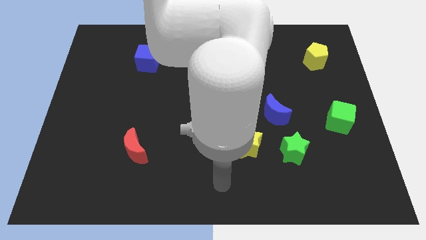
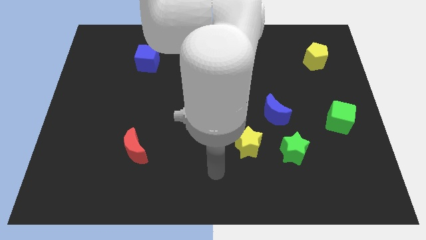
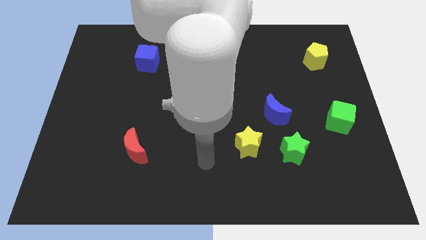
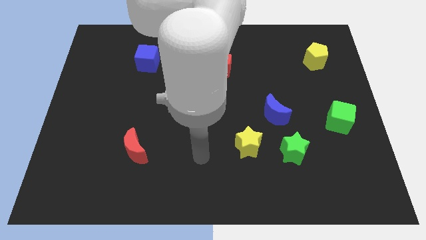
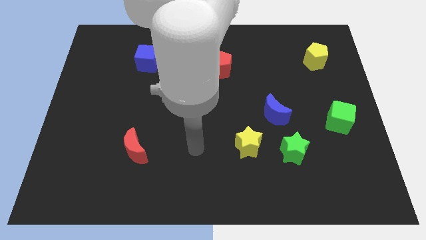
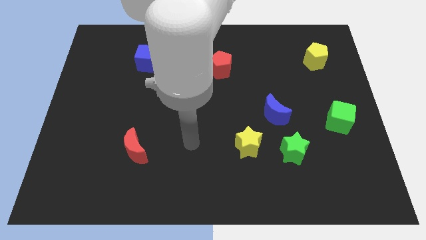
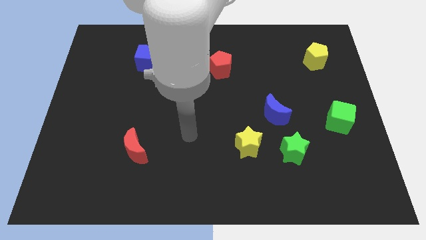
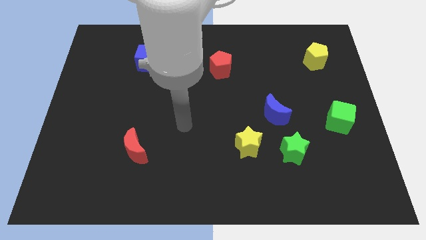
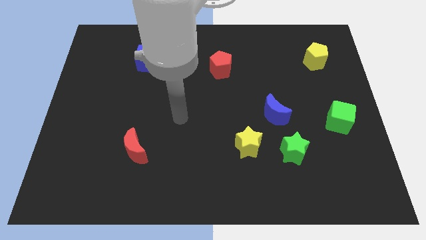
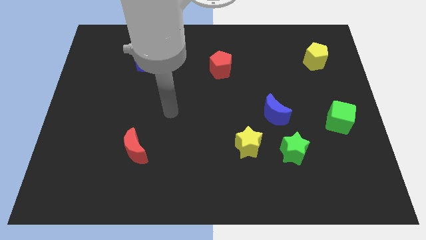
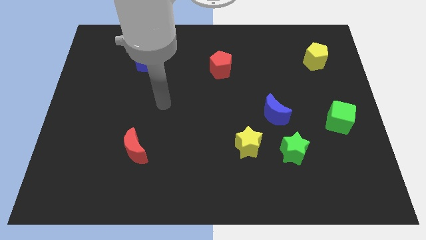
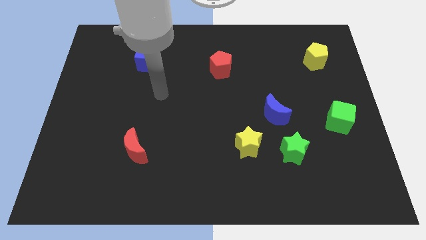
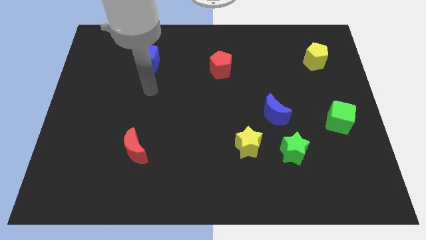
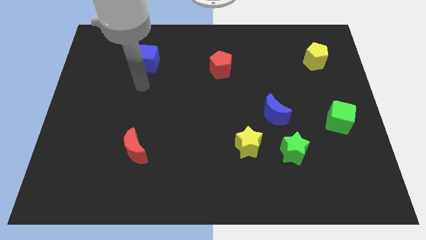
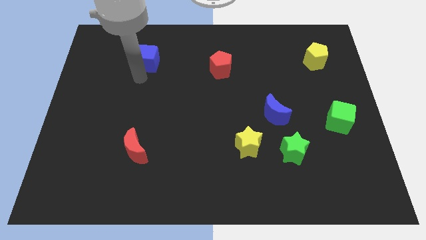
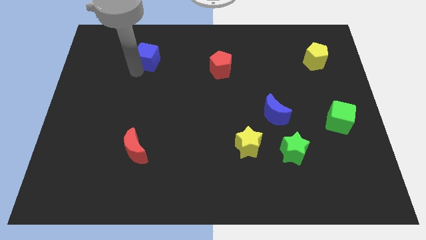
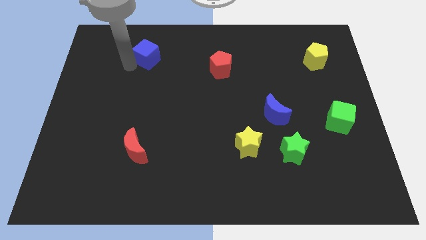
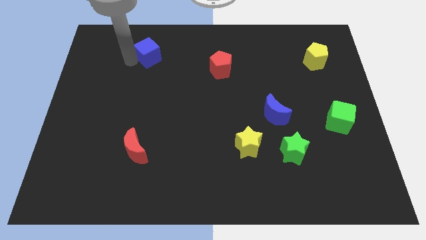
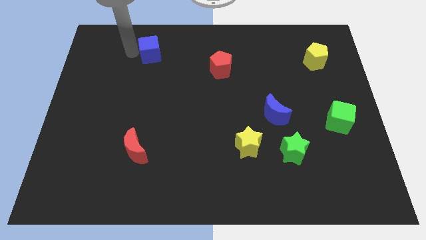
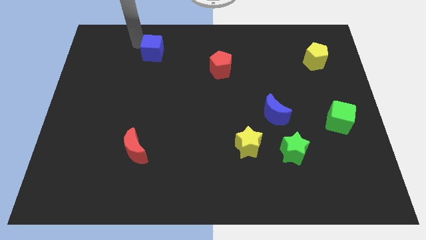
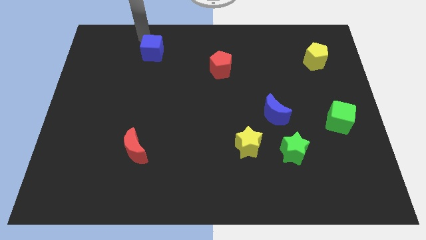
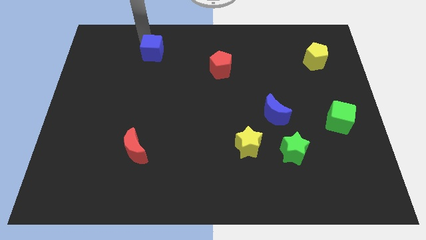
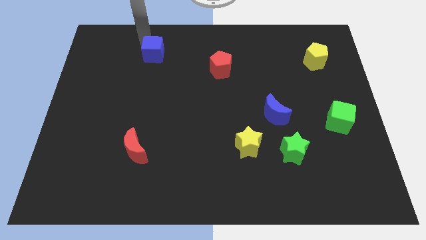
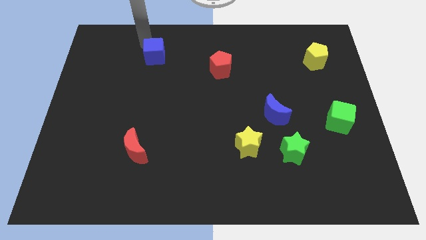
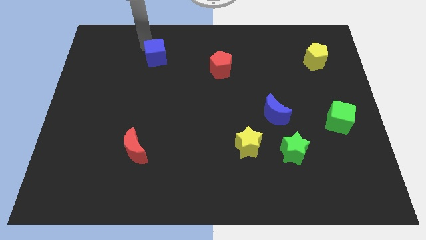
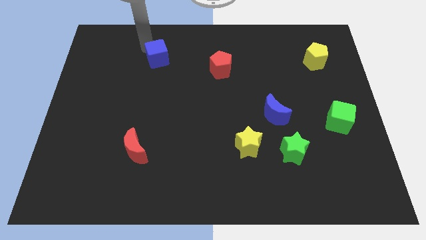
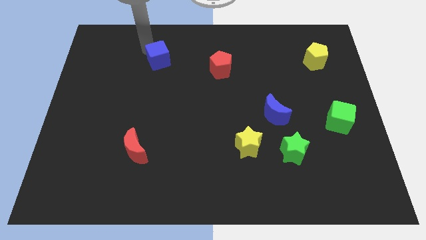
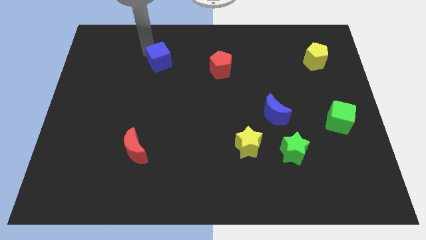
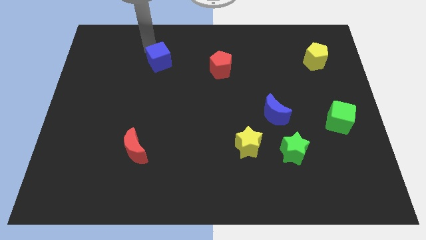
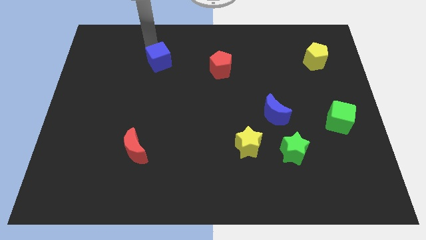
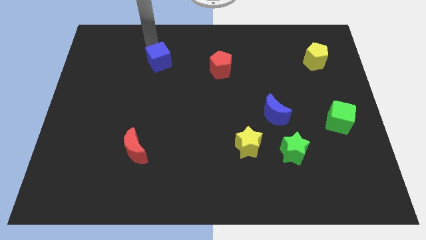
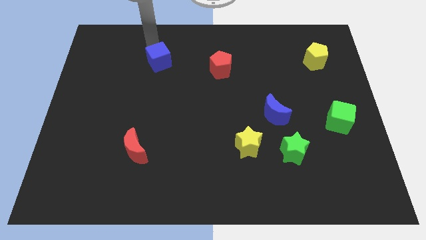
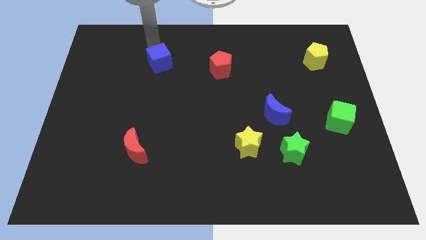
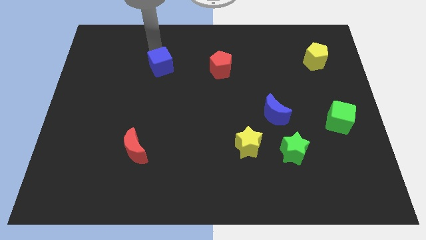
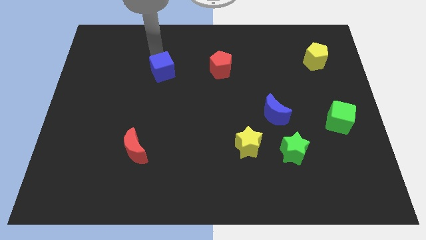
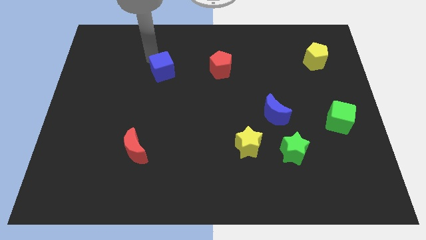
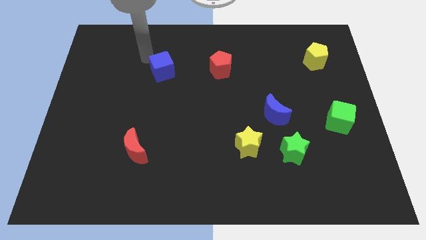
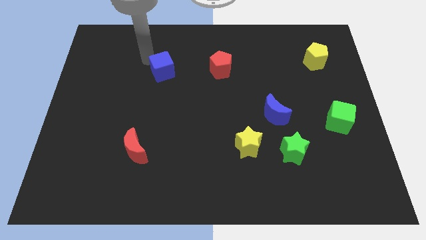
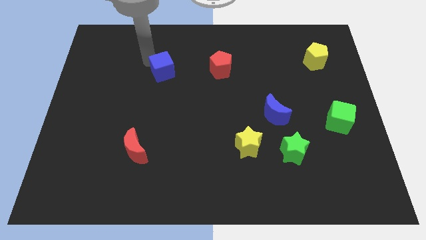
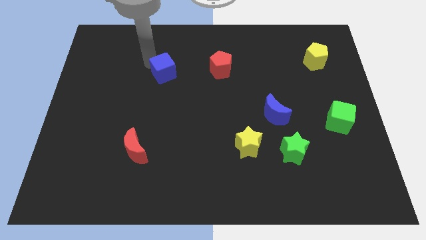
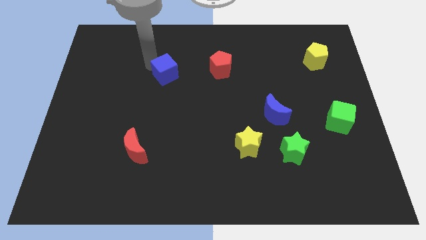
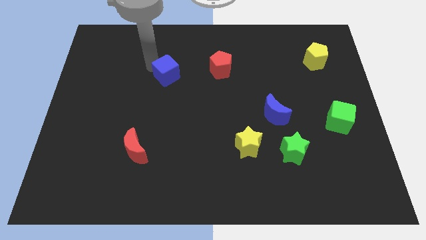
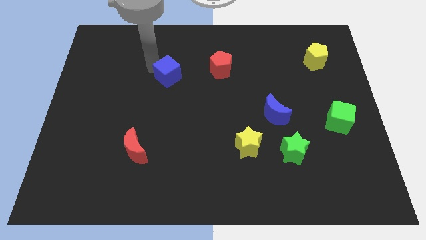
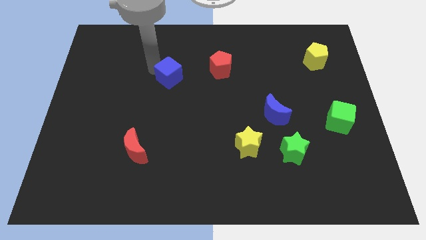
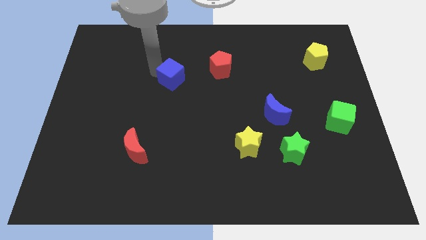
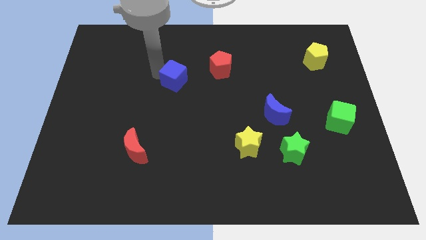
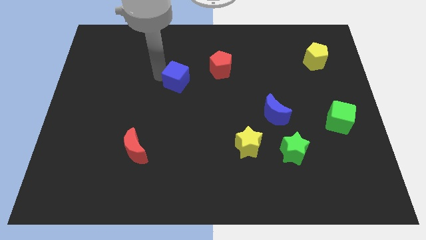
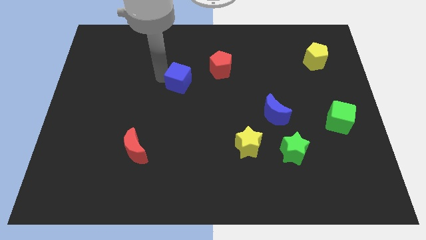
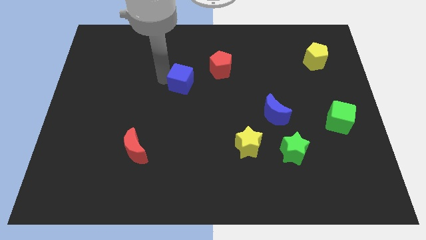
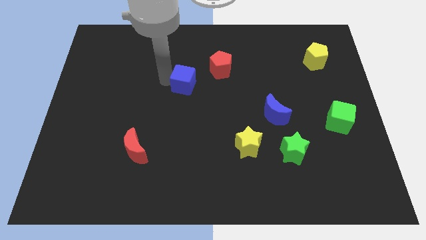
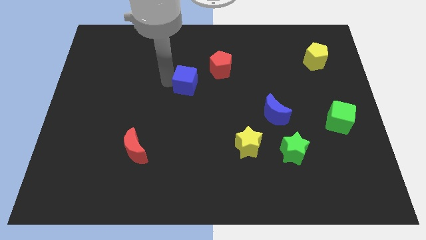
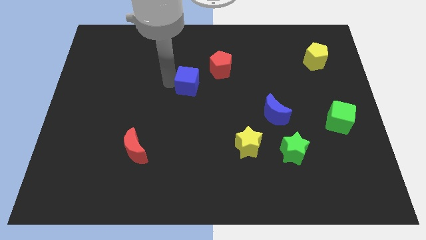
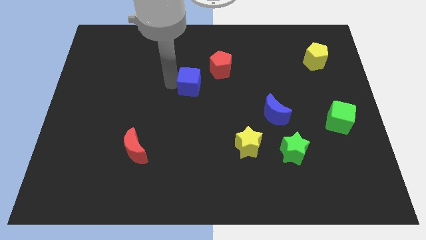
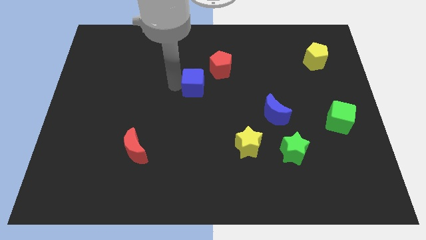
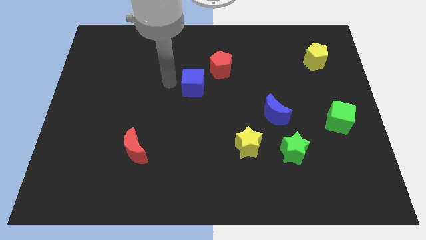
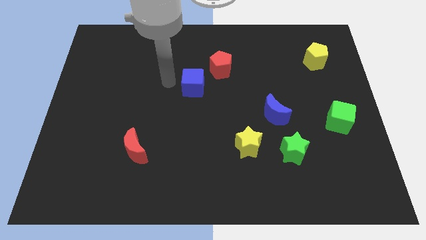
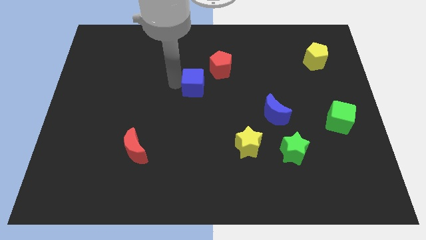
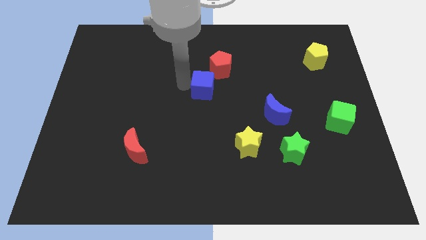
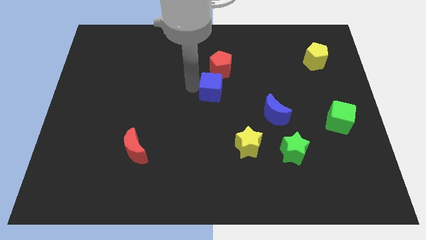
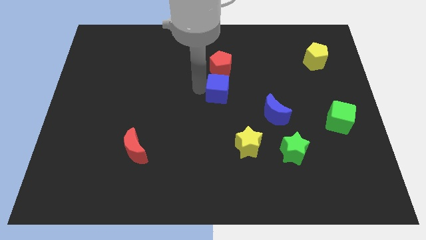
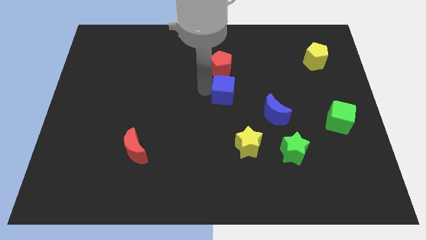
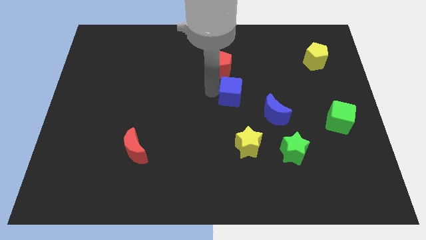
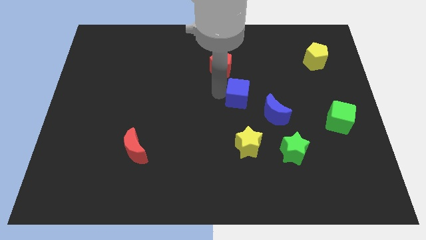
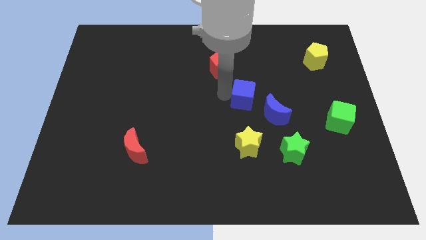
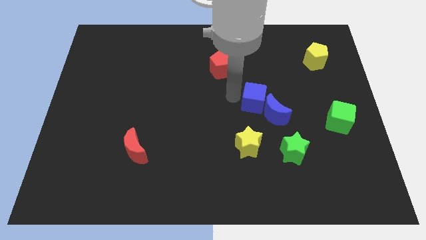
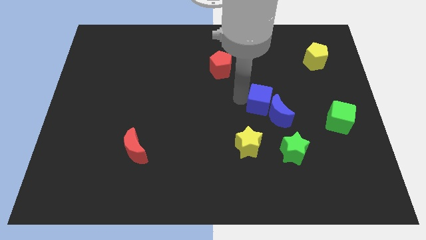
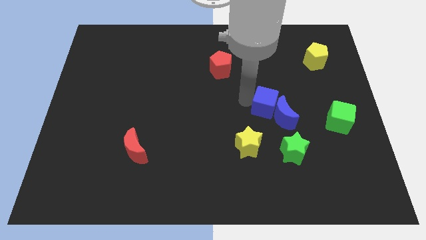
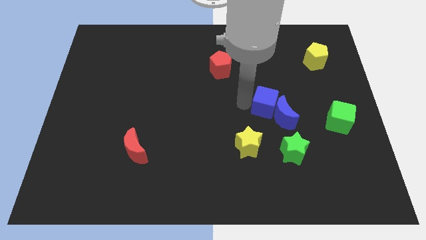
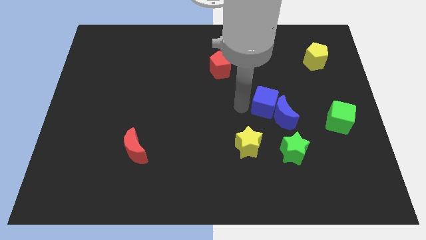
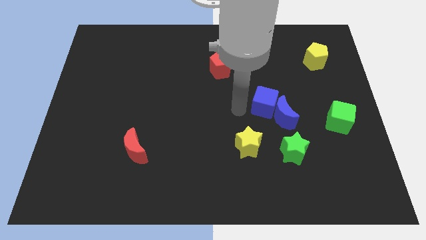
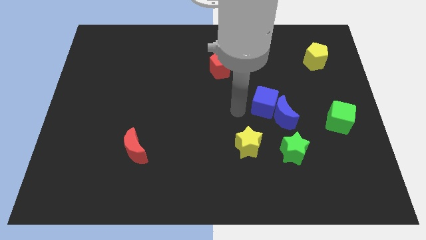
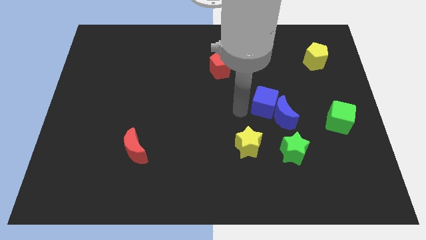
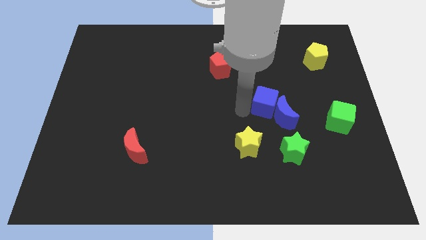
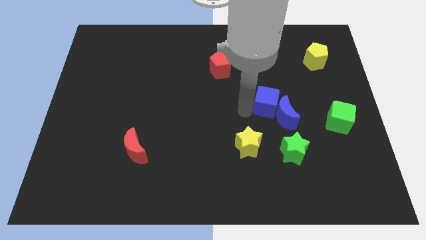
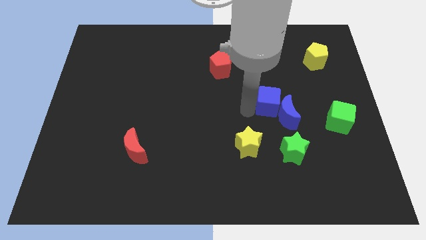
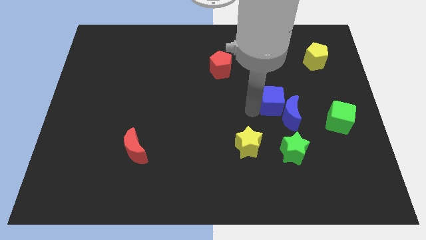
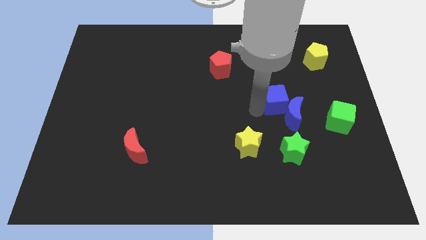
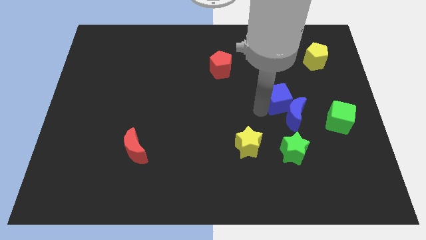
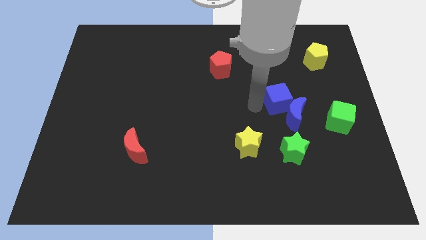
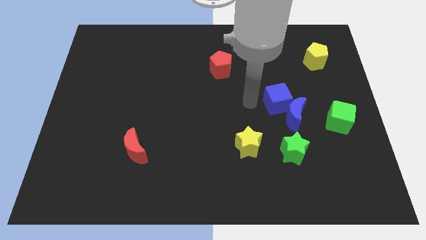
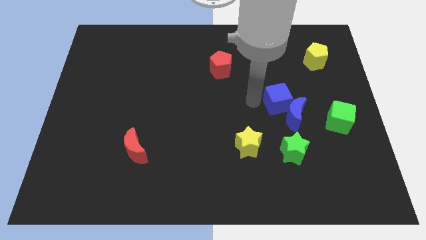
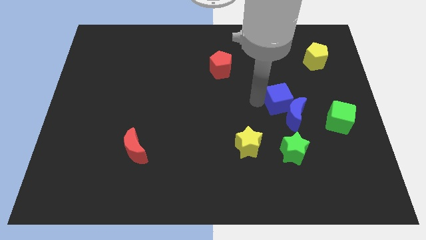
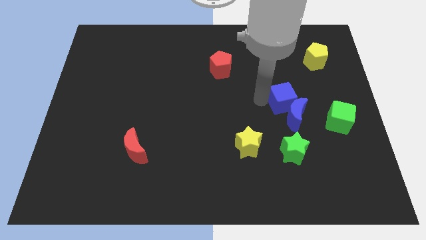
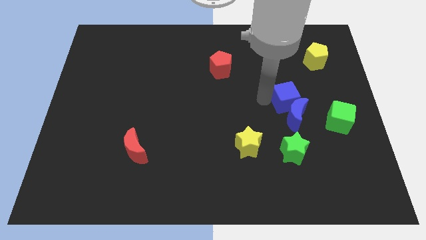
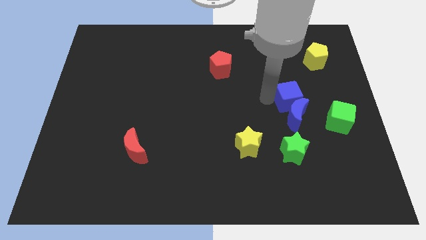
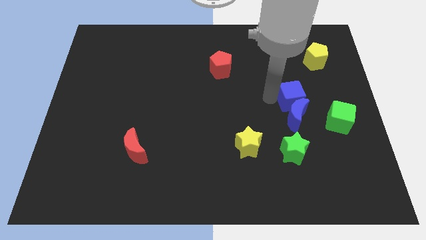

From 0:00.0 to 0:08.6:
move the blue cube diagonally up and to the left of the green cube
